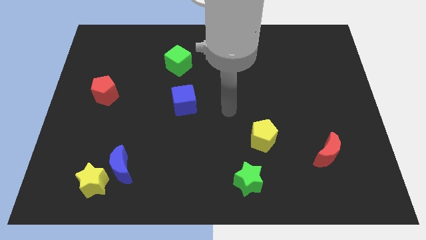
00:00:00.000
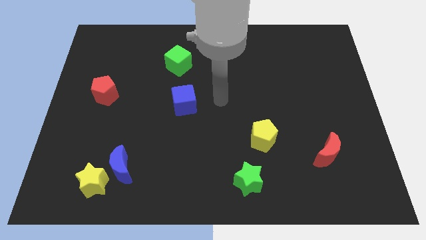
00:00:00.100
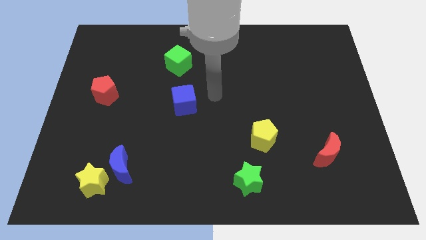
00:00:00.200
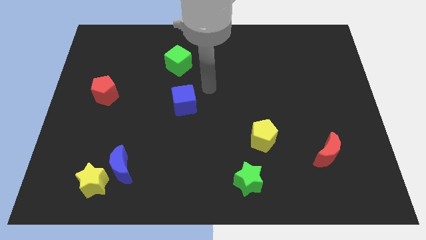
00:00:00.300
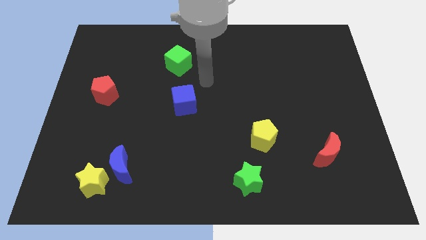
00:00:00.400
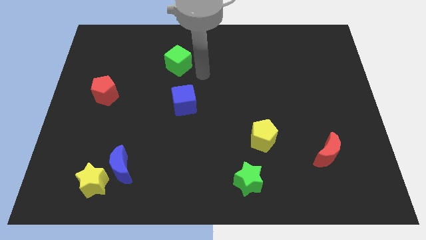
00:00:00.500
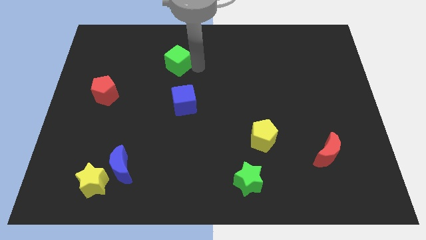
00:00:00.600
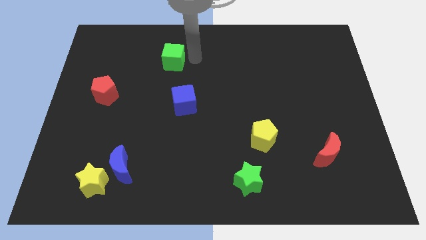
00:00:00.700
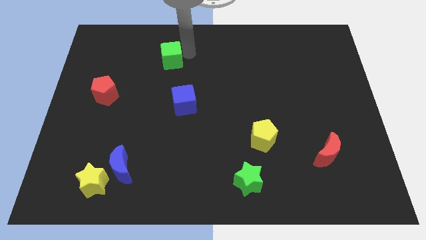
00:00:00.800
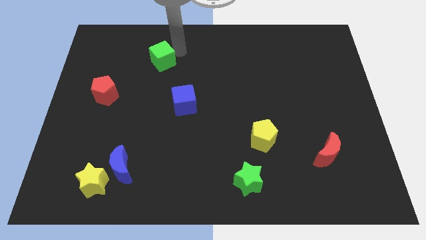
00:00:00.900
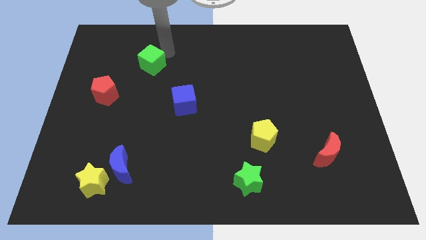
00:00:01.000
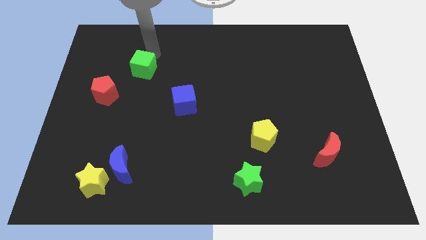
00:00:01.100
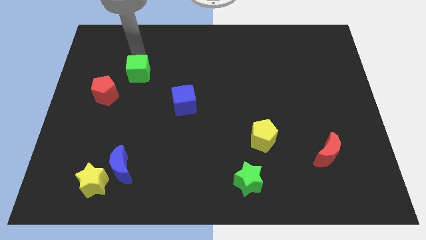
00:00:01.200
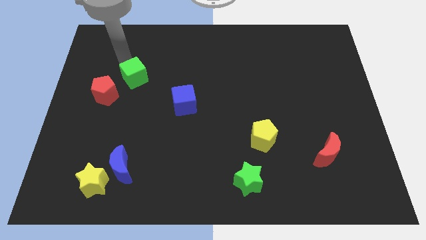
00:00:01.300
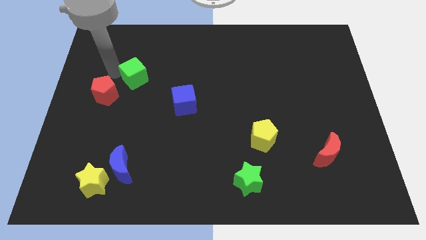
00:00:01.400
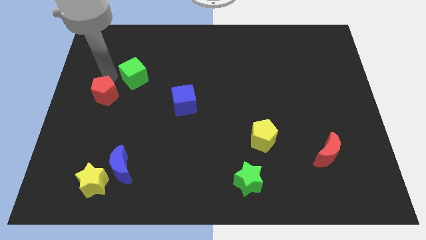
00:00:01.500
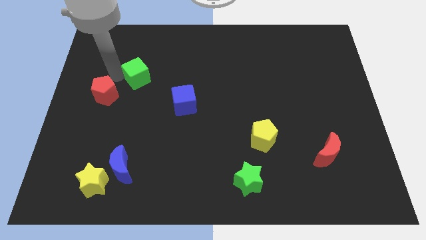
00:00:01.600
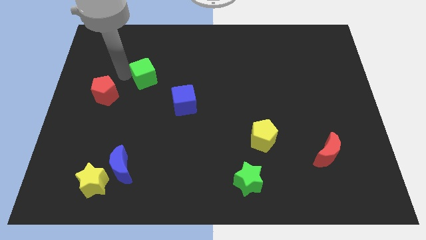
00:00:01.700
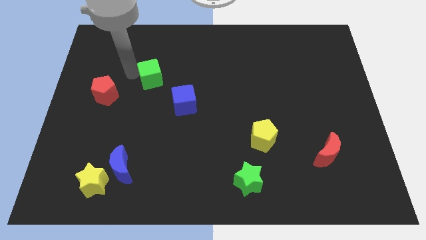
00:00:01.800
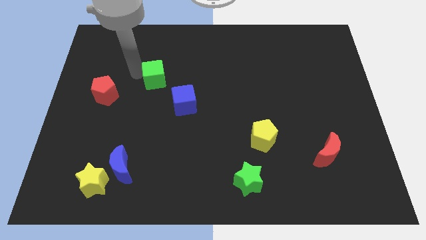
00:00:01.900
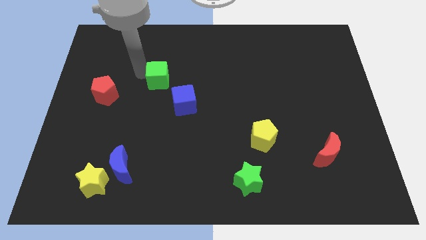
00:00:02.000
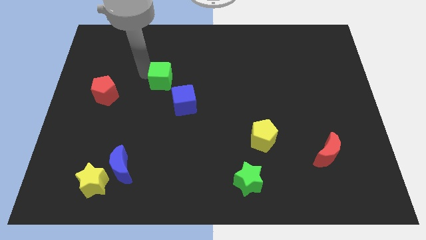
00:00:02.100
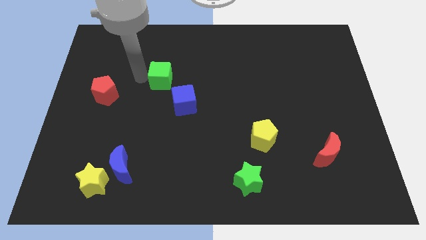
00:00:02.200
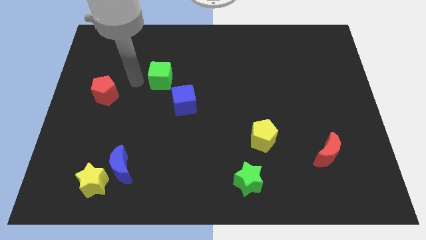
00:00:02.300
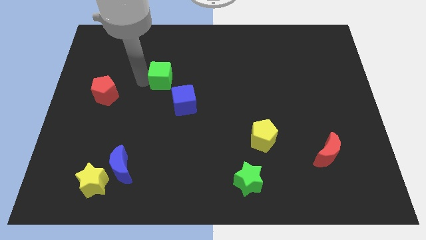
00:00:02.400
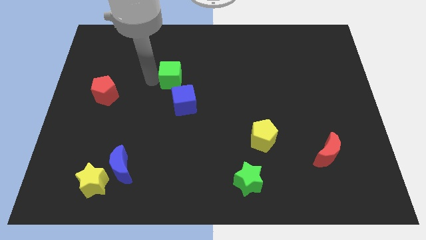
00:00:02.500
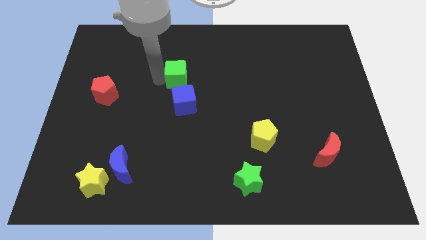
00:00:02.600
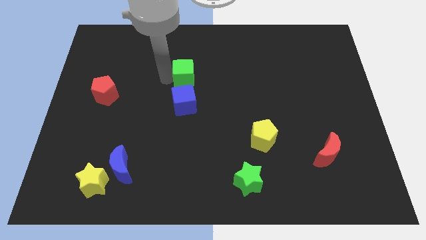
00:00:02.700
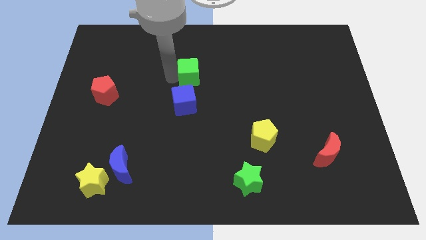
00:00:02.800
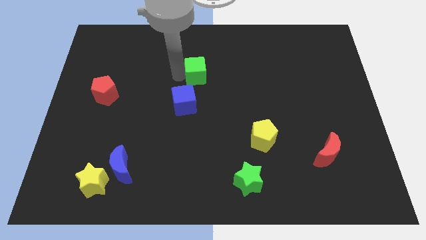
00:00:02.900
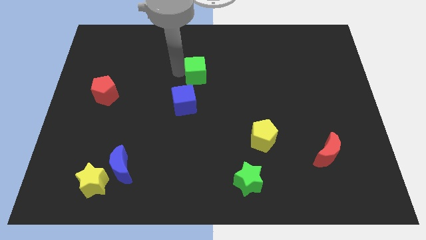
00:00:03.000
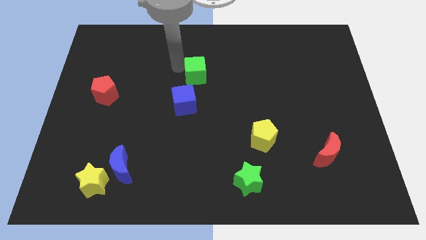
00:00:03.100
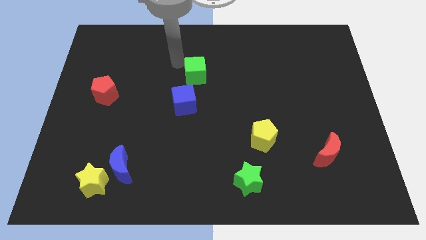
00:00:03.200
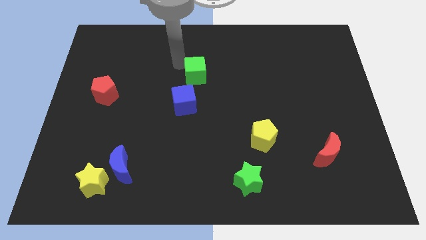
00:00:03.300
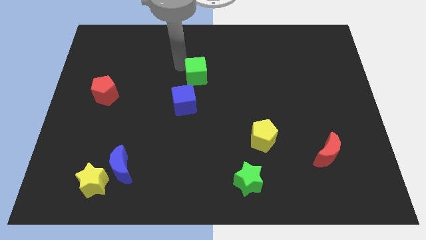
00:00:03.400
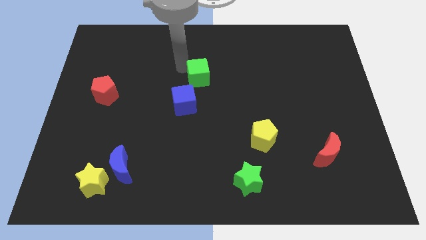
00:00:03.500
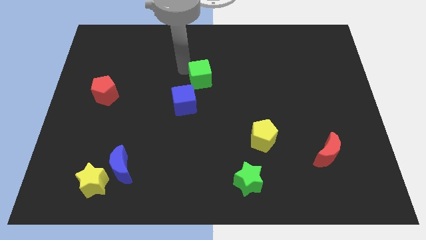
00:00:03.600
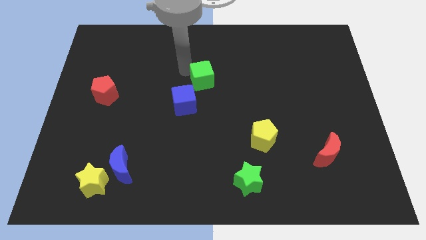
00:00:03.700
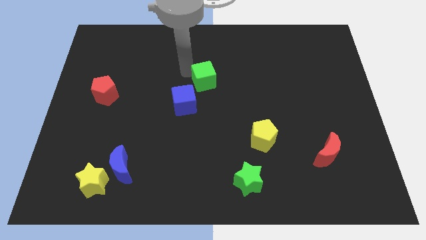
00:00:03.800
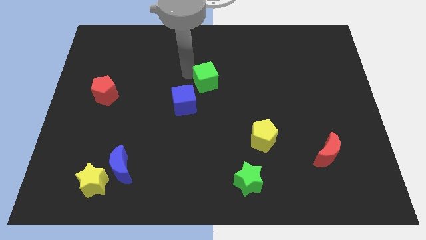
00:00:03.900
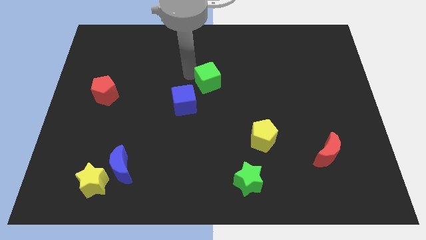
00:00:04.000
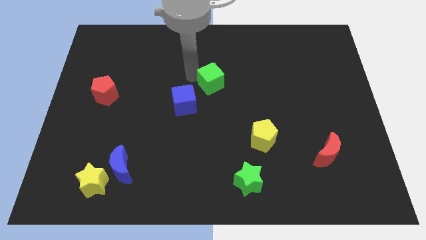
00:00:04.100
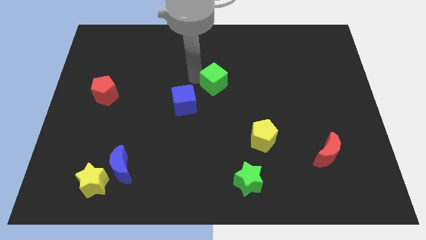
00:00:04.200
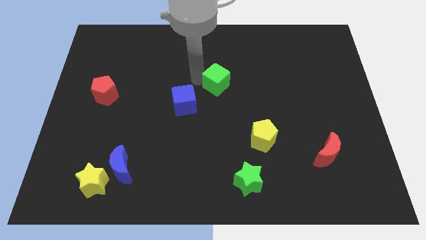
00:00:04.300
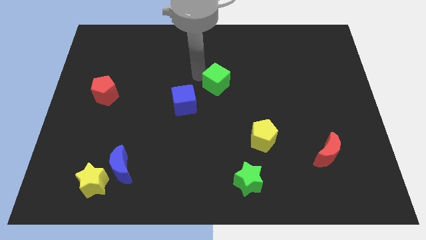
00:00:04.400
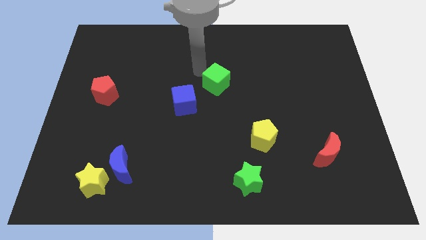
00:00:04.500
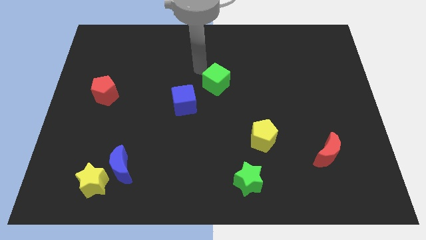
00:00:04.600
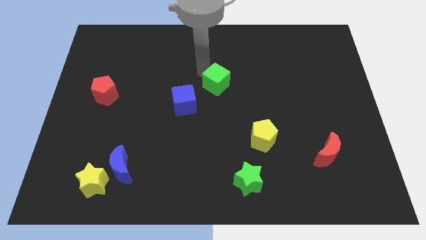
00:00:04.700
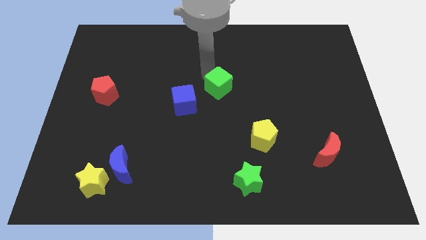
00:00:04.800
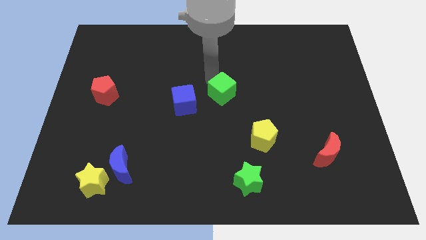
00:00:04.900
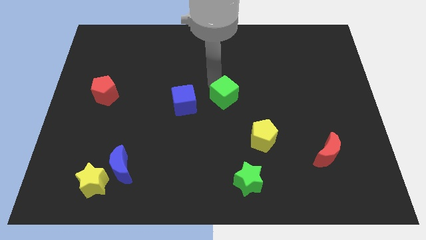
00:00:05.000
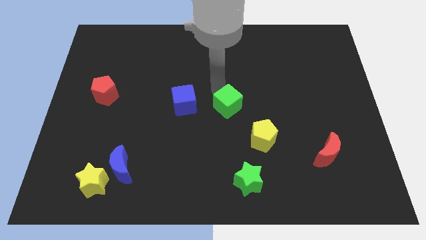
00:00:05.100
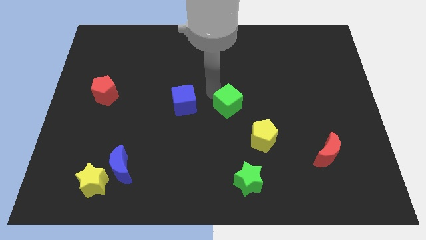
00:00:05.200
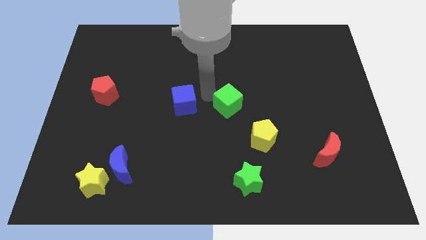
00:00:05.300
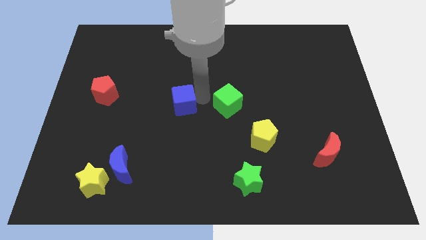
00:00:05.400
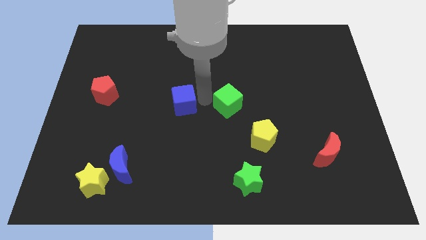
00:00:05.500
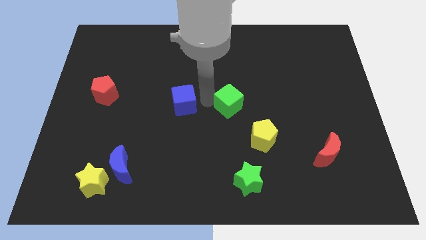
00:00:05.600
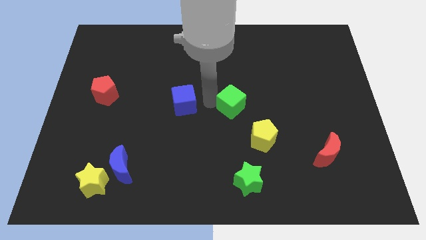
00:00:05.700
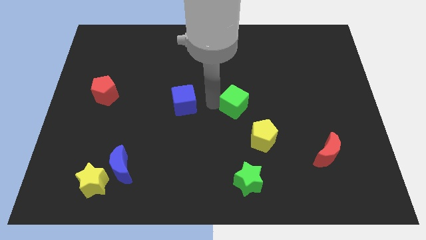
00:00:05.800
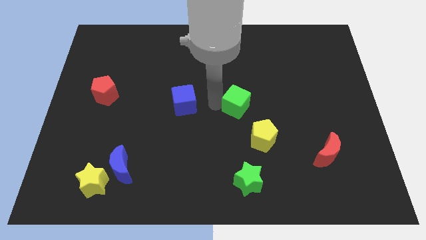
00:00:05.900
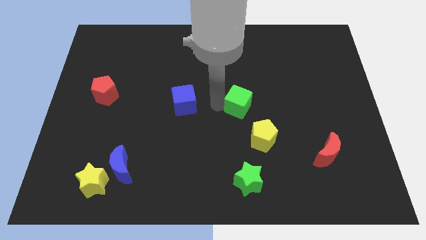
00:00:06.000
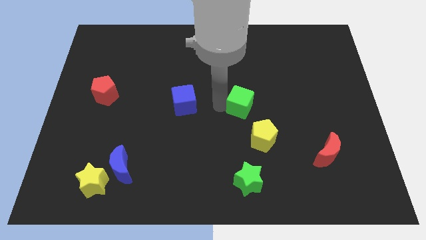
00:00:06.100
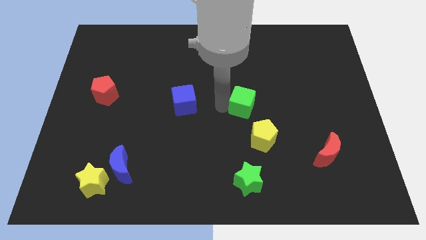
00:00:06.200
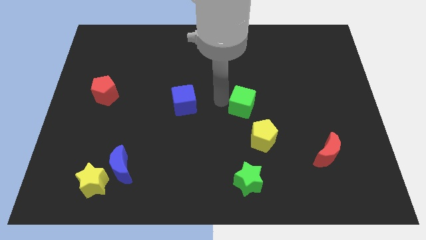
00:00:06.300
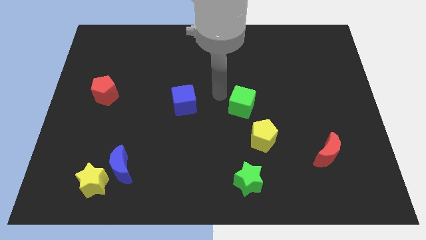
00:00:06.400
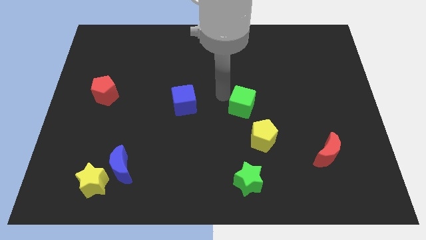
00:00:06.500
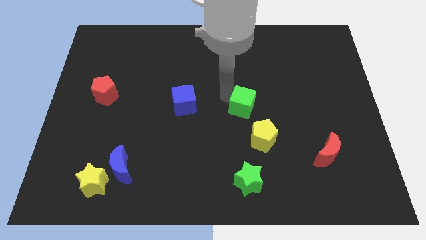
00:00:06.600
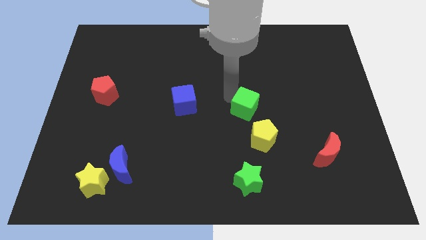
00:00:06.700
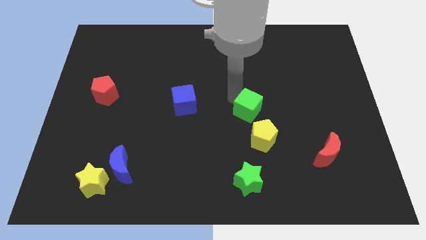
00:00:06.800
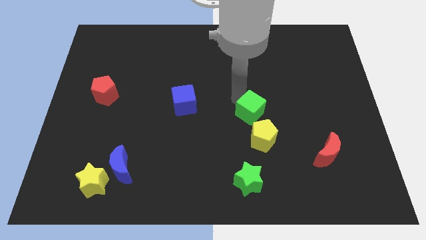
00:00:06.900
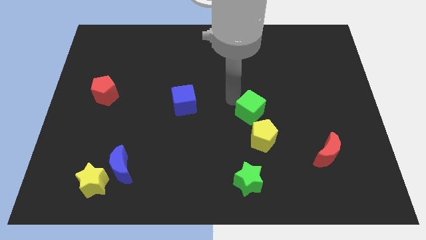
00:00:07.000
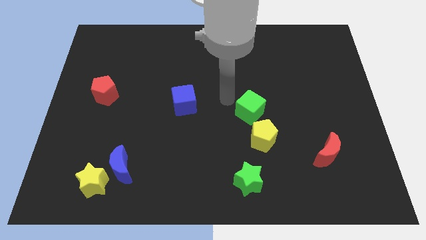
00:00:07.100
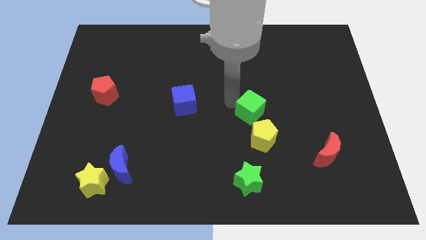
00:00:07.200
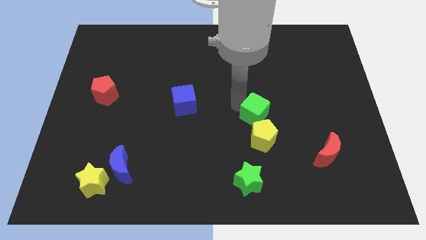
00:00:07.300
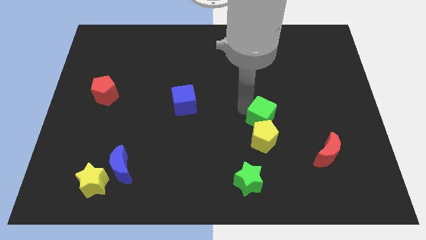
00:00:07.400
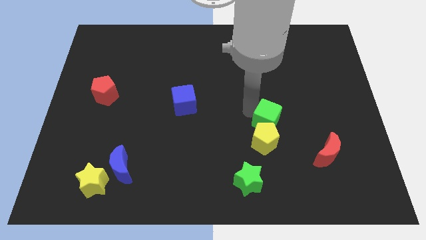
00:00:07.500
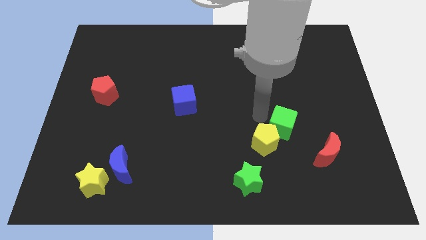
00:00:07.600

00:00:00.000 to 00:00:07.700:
move the green cube to the right side of the yellow pentagon

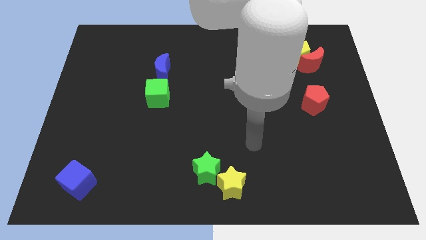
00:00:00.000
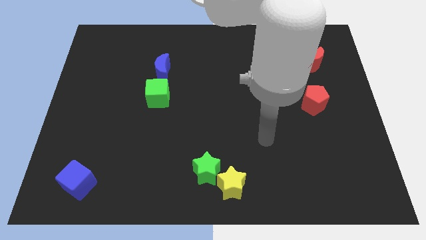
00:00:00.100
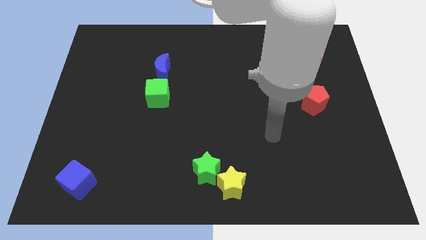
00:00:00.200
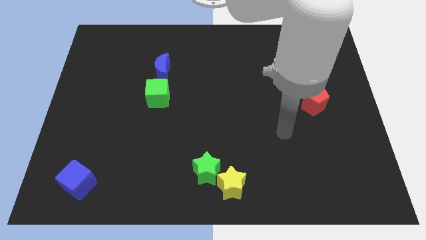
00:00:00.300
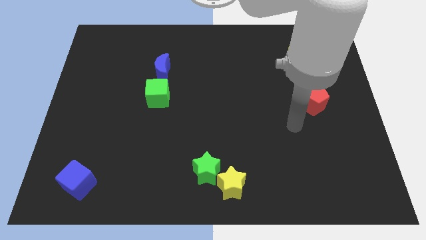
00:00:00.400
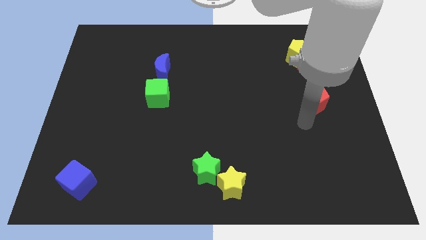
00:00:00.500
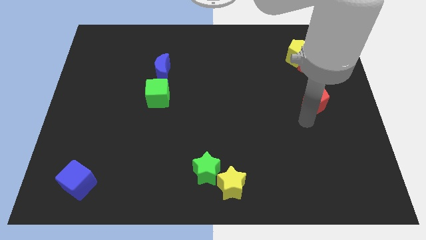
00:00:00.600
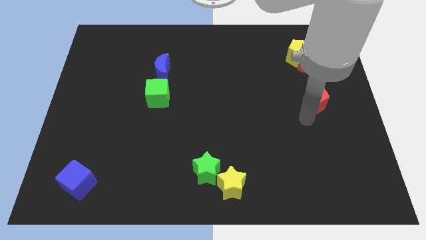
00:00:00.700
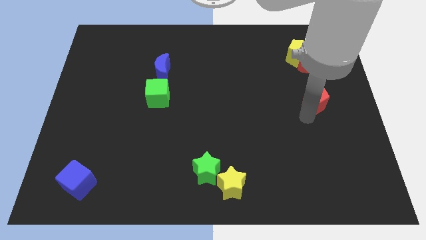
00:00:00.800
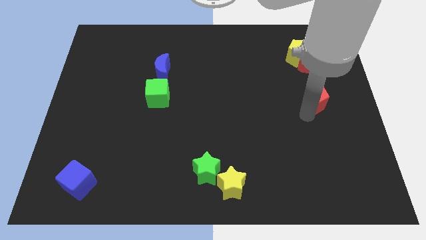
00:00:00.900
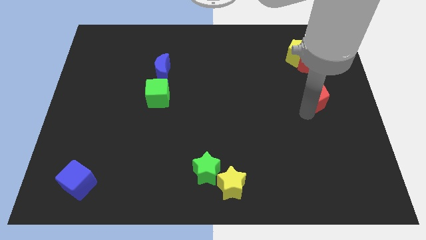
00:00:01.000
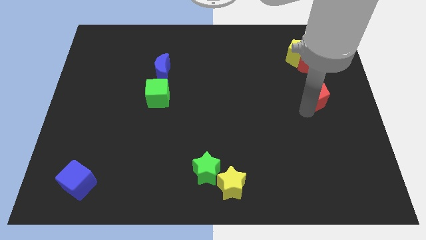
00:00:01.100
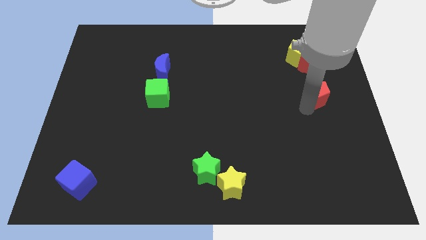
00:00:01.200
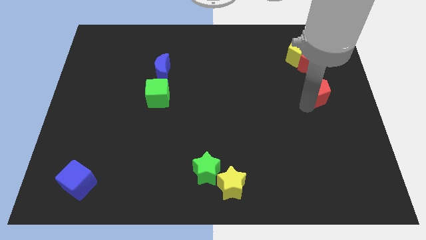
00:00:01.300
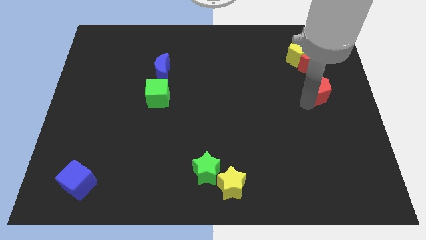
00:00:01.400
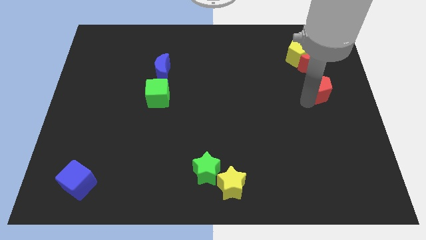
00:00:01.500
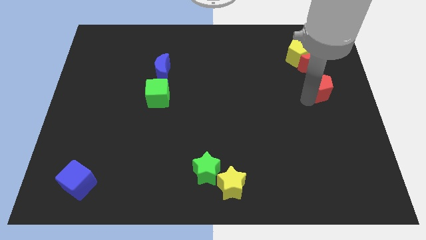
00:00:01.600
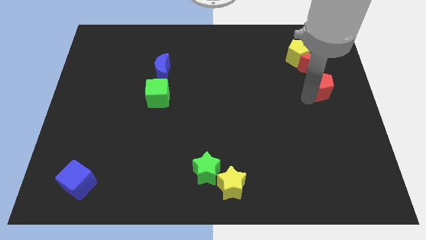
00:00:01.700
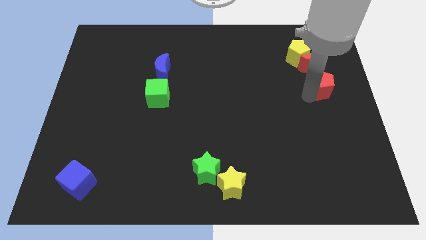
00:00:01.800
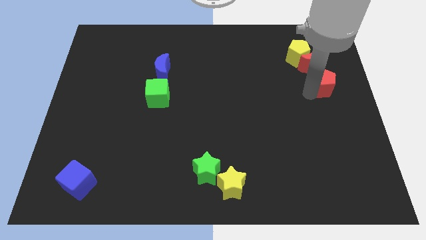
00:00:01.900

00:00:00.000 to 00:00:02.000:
push the red pentagon to the bottom right of the yellow pentagon
